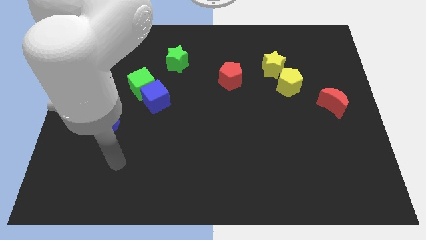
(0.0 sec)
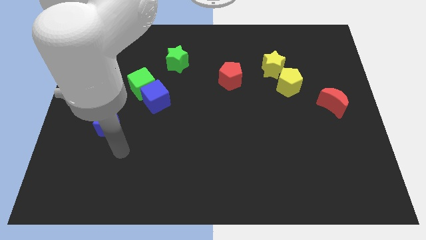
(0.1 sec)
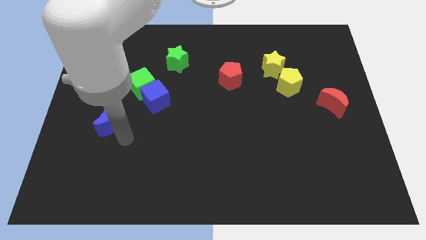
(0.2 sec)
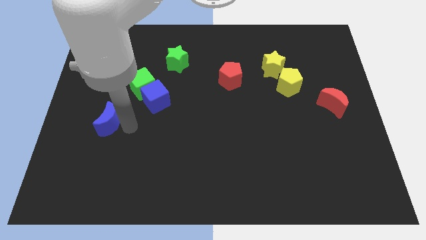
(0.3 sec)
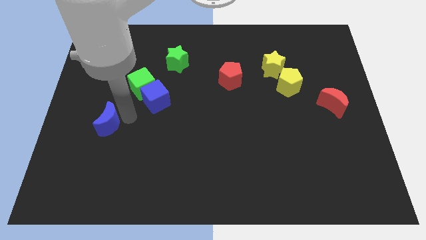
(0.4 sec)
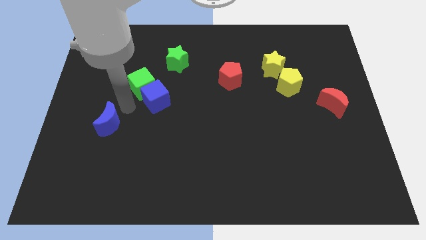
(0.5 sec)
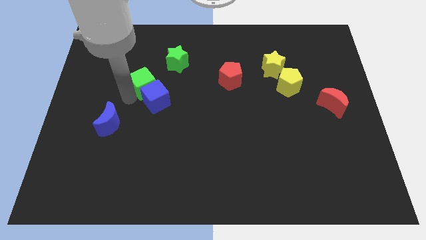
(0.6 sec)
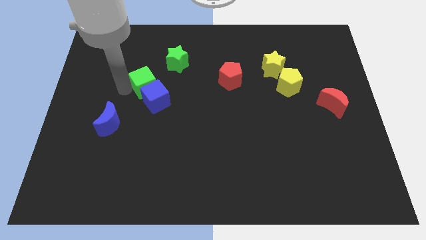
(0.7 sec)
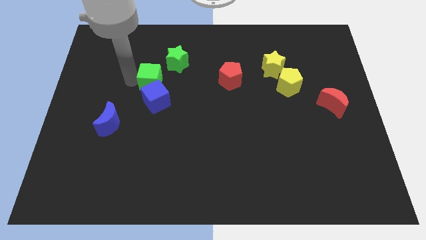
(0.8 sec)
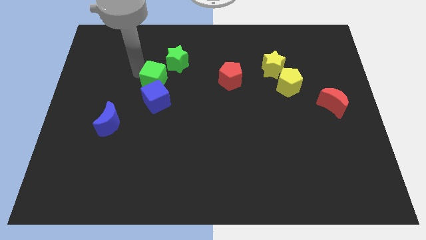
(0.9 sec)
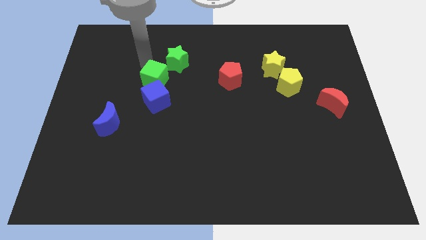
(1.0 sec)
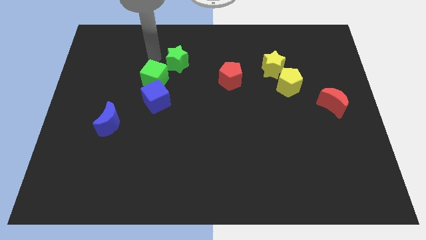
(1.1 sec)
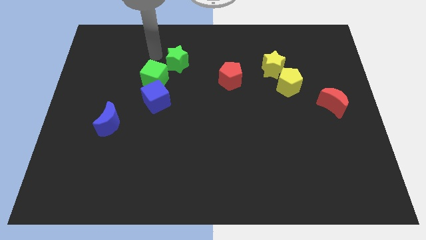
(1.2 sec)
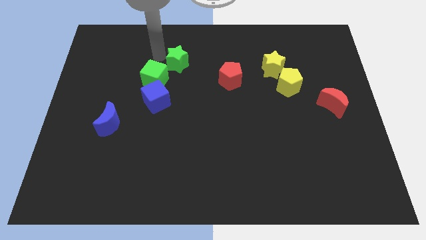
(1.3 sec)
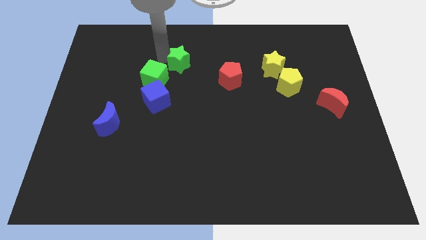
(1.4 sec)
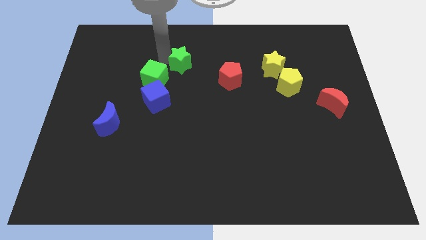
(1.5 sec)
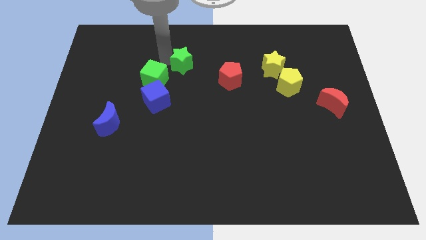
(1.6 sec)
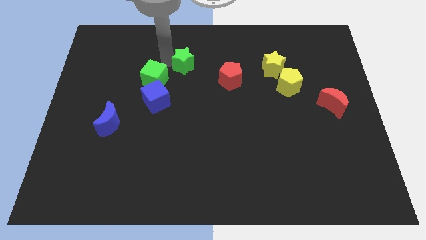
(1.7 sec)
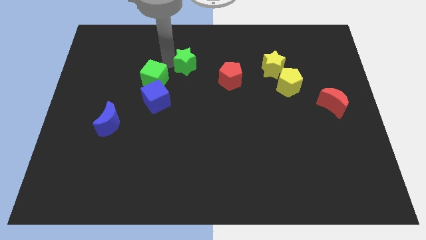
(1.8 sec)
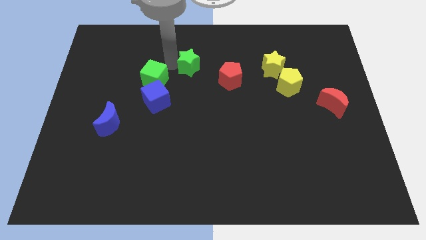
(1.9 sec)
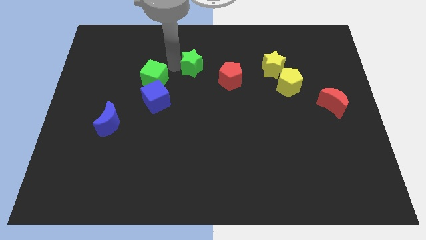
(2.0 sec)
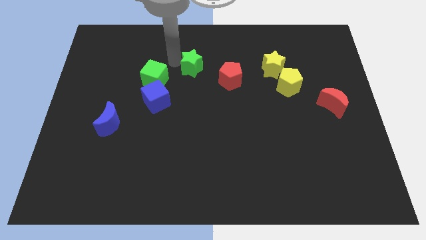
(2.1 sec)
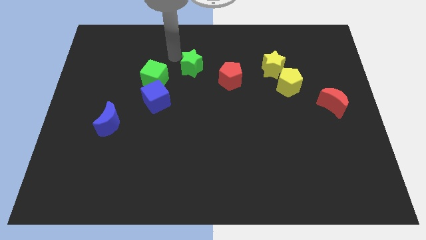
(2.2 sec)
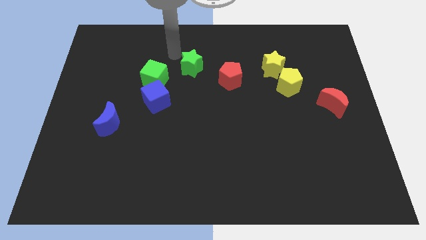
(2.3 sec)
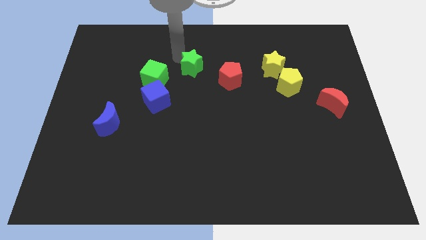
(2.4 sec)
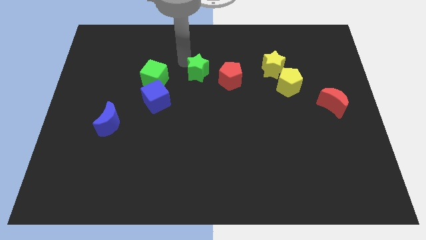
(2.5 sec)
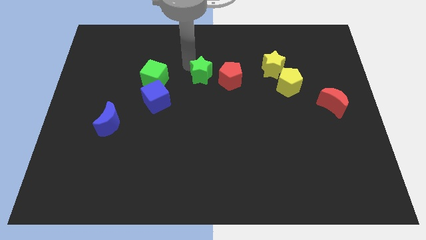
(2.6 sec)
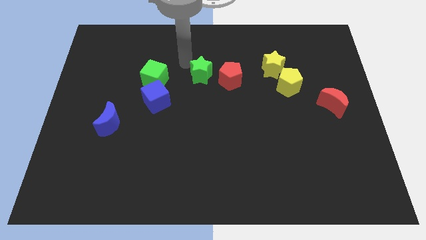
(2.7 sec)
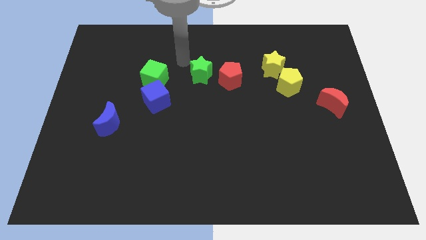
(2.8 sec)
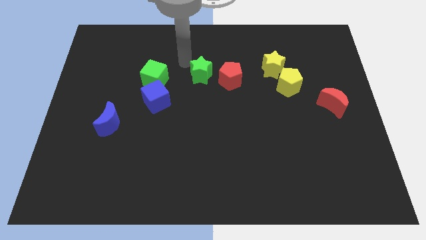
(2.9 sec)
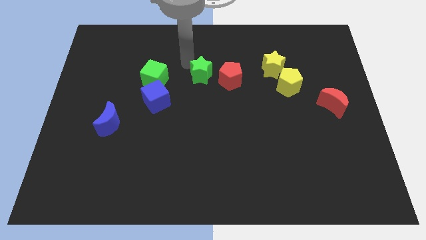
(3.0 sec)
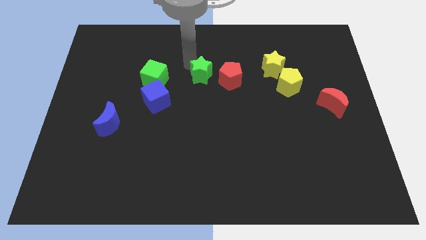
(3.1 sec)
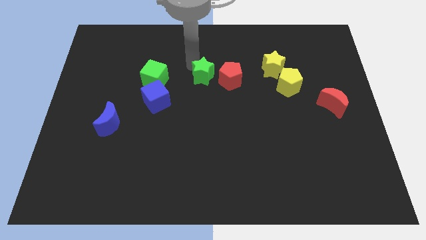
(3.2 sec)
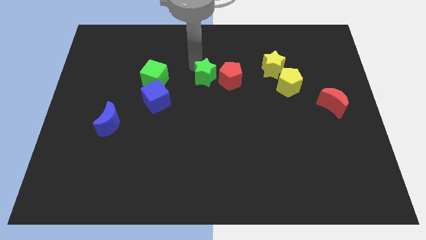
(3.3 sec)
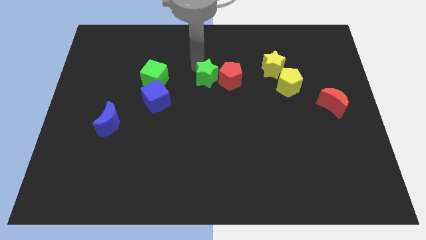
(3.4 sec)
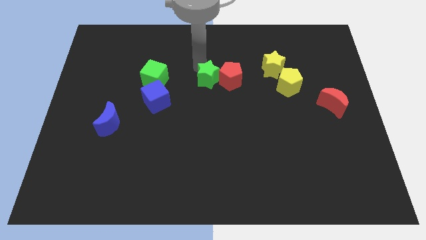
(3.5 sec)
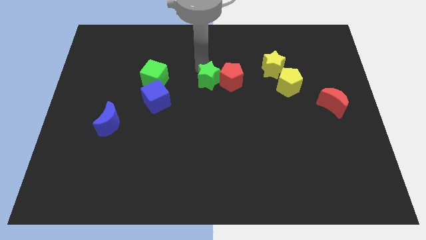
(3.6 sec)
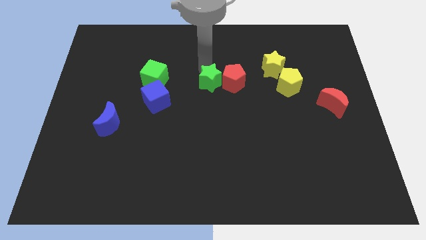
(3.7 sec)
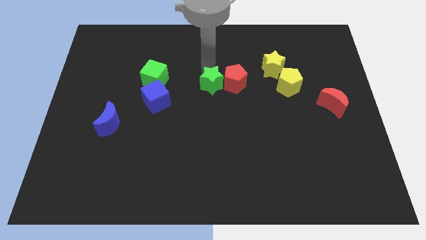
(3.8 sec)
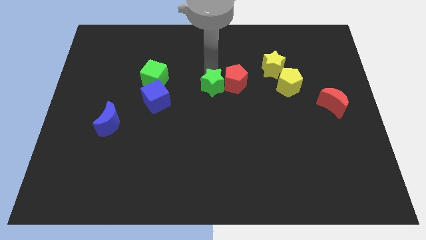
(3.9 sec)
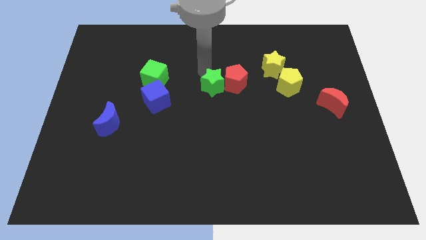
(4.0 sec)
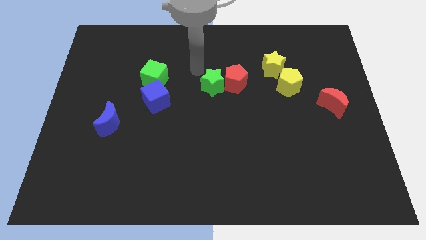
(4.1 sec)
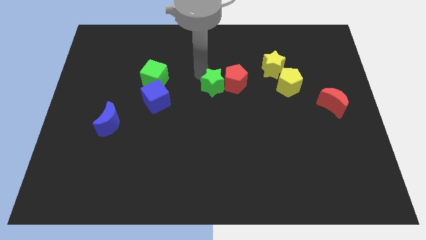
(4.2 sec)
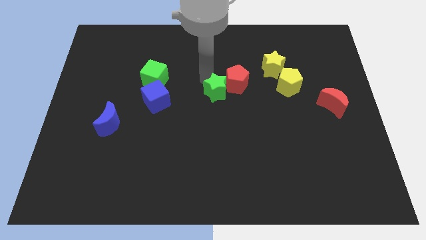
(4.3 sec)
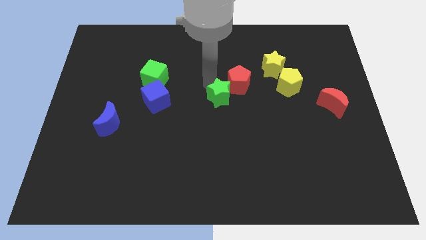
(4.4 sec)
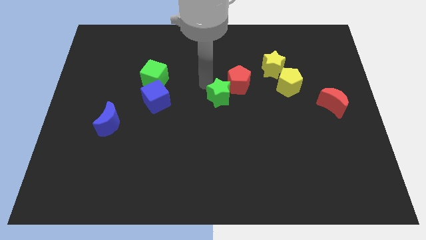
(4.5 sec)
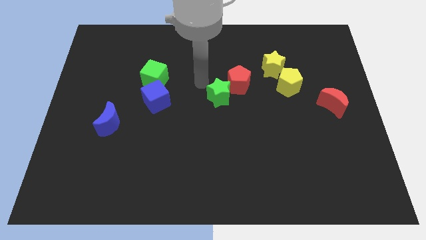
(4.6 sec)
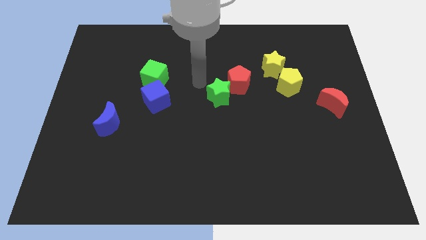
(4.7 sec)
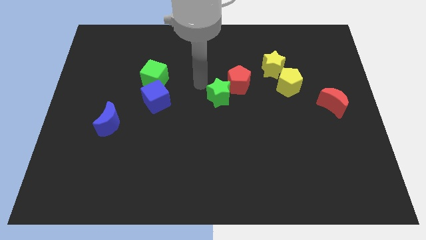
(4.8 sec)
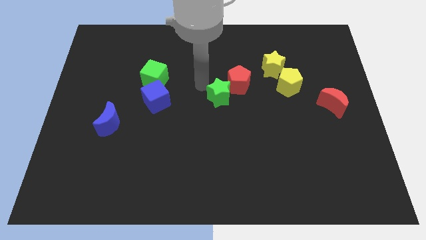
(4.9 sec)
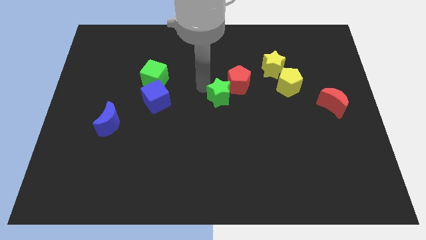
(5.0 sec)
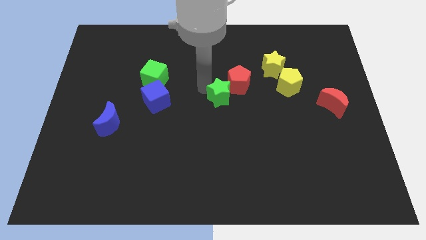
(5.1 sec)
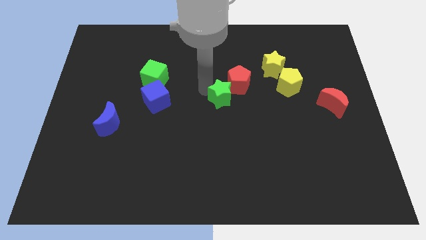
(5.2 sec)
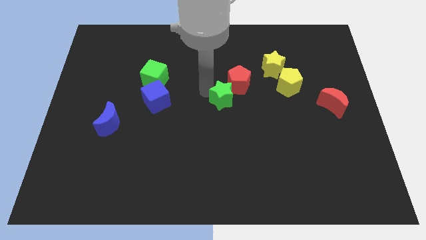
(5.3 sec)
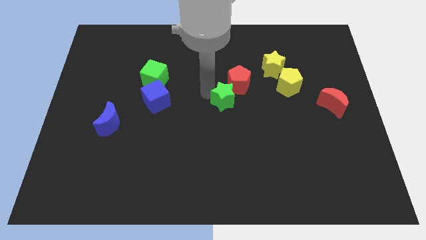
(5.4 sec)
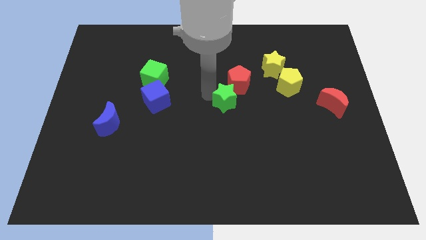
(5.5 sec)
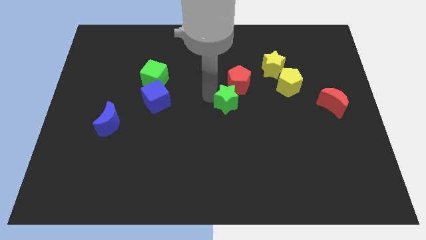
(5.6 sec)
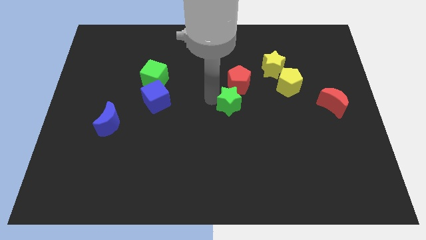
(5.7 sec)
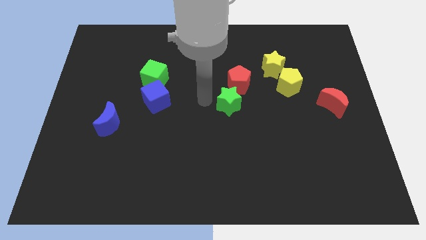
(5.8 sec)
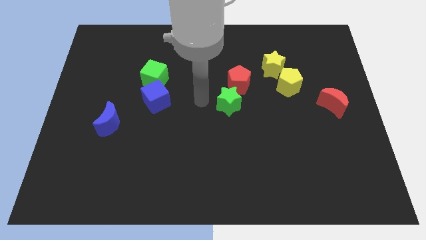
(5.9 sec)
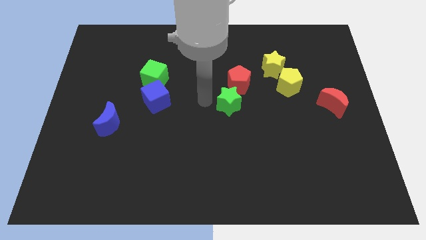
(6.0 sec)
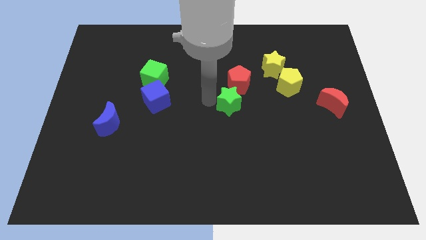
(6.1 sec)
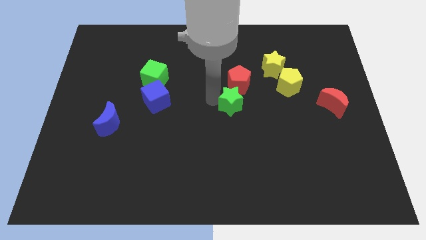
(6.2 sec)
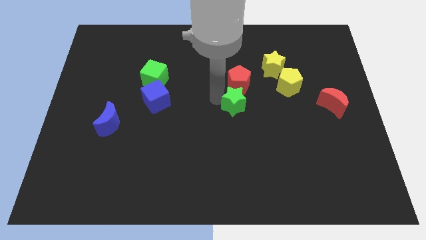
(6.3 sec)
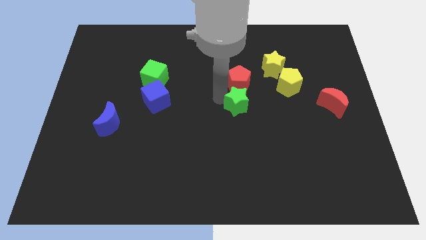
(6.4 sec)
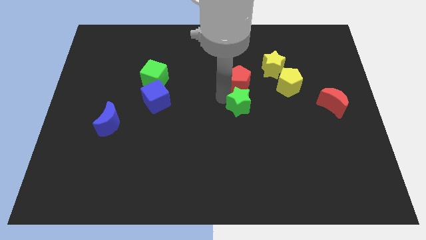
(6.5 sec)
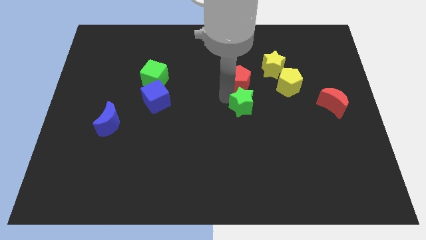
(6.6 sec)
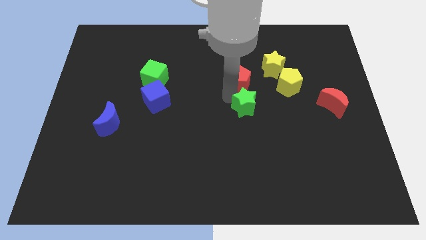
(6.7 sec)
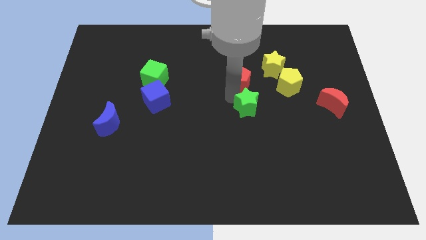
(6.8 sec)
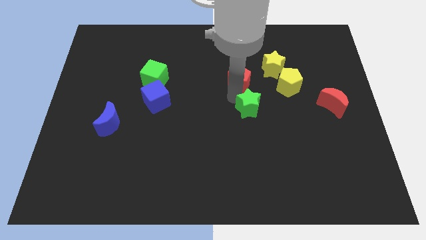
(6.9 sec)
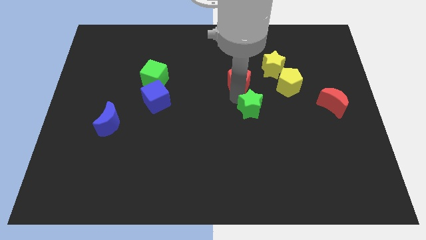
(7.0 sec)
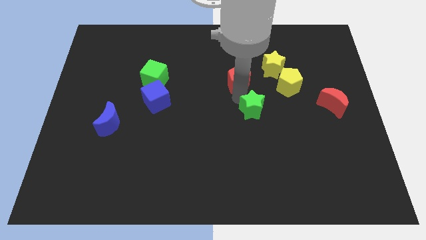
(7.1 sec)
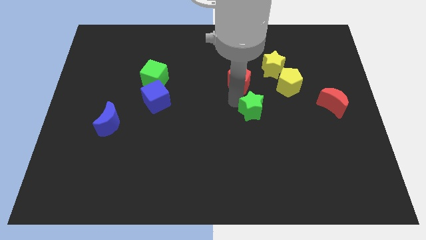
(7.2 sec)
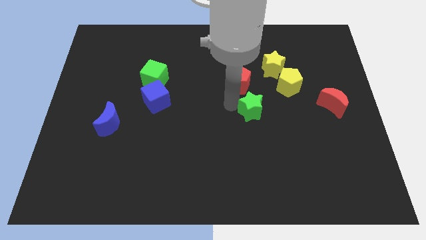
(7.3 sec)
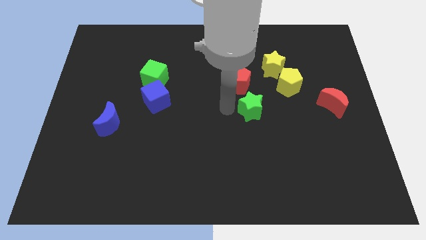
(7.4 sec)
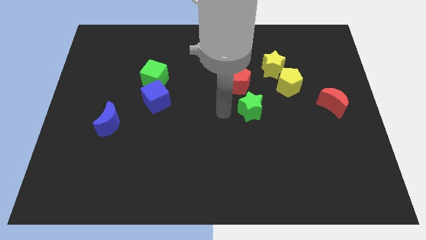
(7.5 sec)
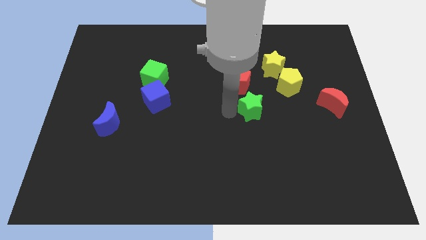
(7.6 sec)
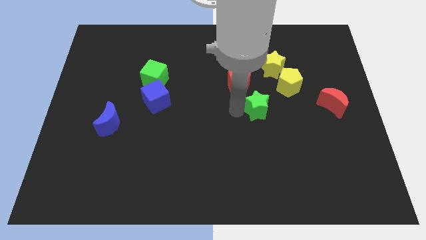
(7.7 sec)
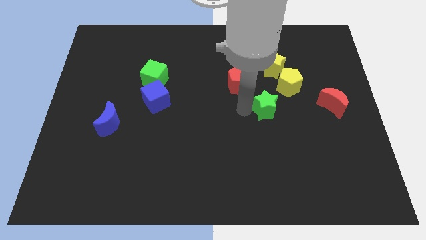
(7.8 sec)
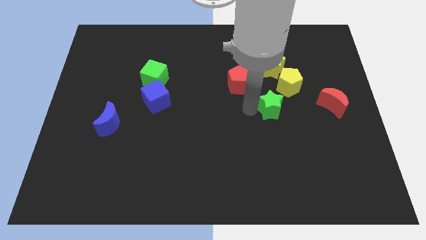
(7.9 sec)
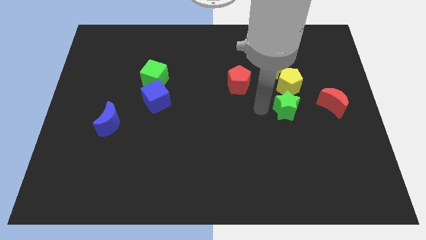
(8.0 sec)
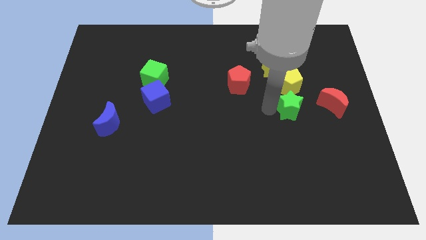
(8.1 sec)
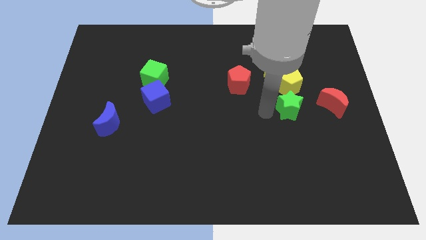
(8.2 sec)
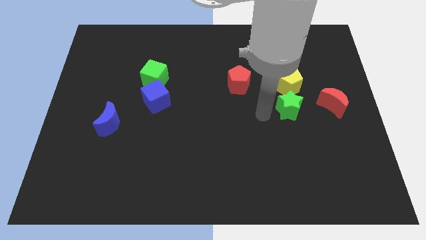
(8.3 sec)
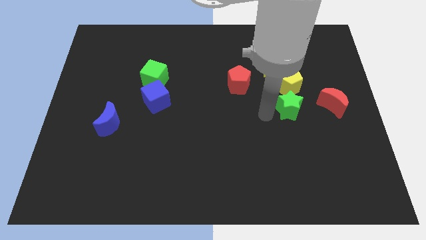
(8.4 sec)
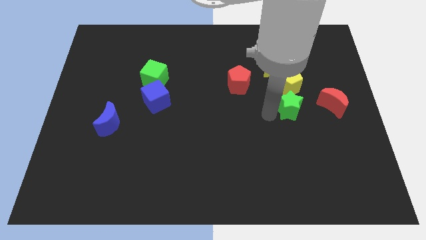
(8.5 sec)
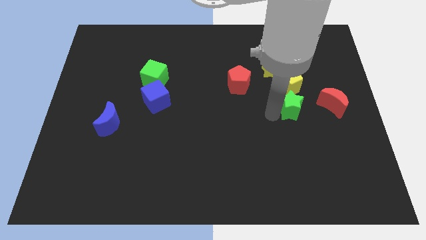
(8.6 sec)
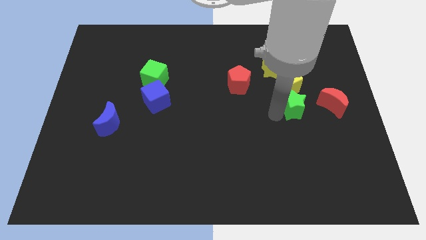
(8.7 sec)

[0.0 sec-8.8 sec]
put the green star diagonally down and to the right of the yellow pentagon
